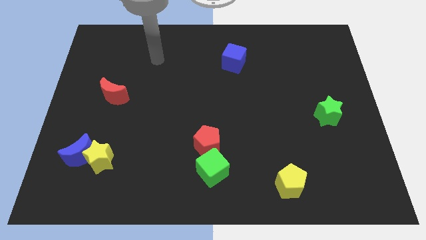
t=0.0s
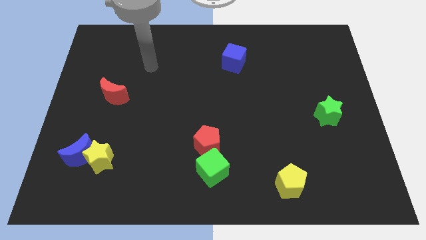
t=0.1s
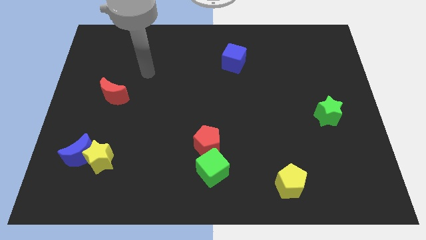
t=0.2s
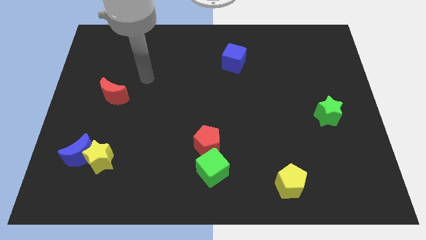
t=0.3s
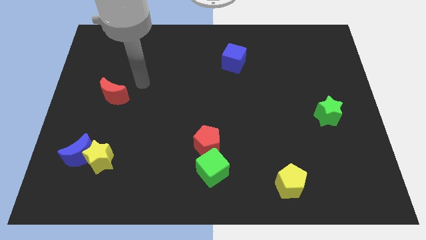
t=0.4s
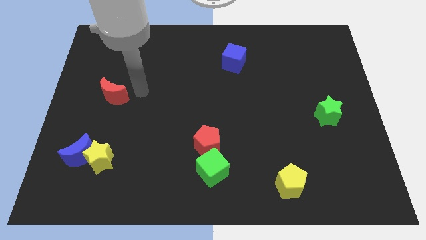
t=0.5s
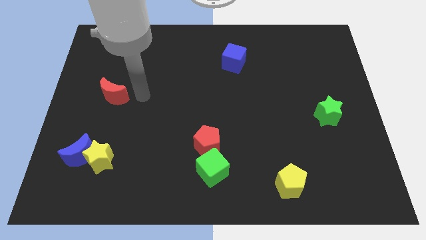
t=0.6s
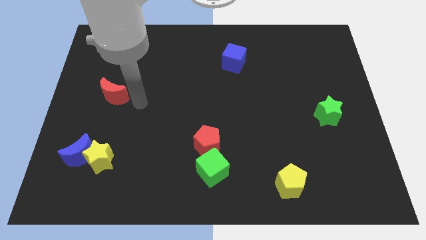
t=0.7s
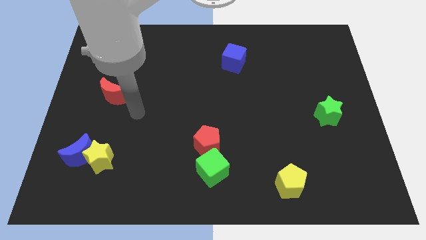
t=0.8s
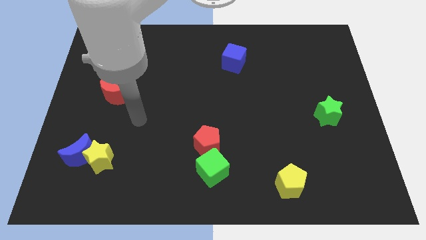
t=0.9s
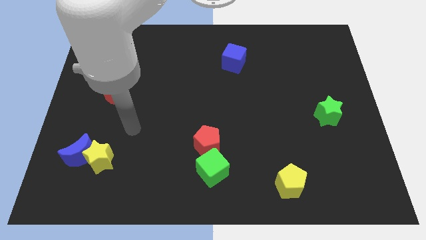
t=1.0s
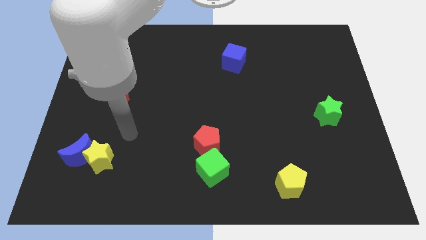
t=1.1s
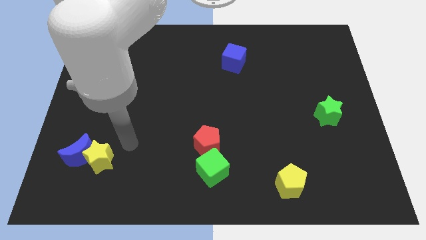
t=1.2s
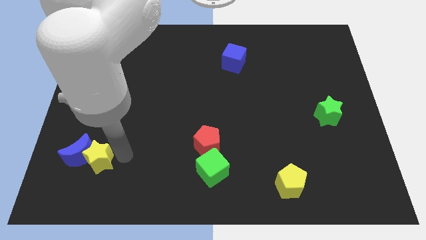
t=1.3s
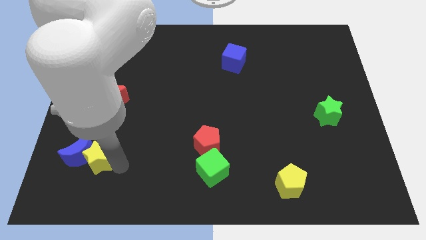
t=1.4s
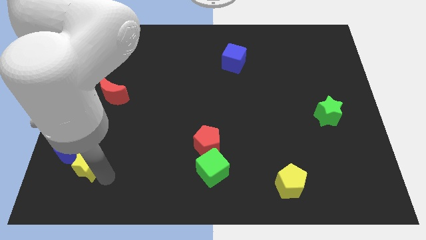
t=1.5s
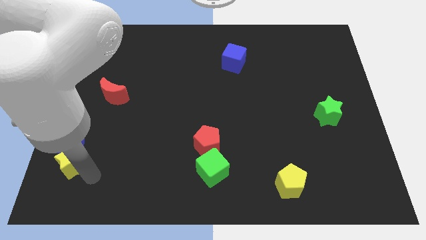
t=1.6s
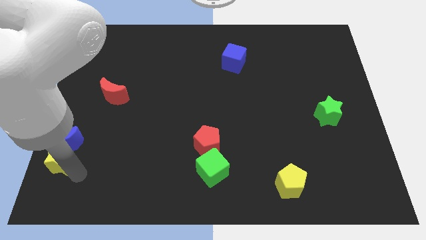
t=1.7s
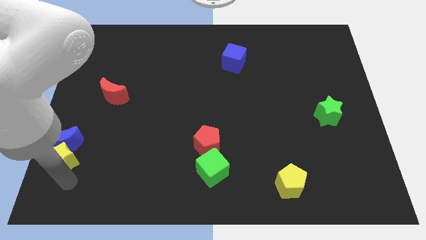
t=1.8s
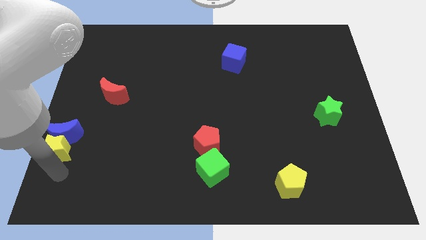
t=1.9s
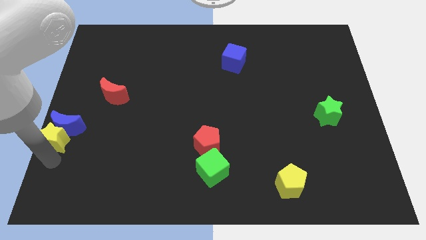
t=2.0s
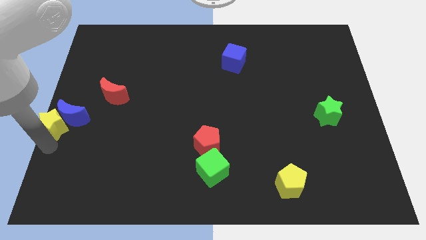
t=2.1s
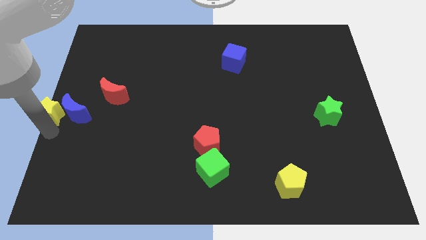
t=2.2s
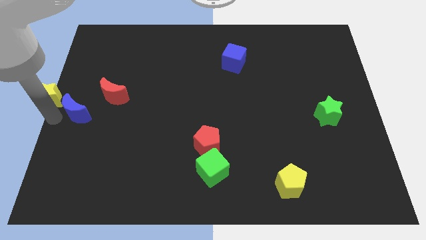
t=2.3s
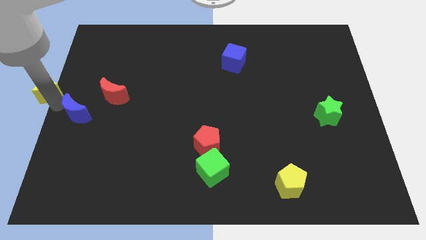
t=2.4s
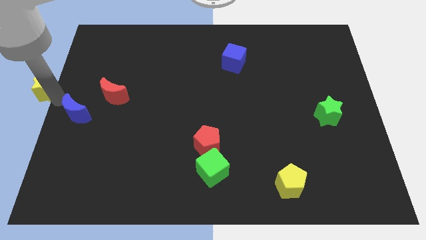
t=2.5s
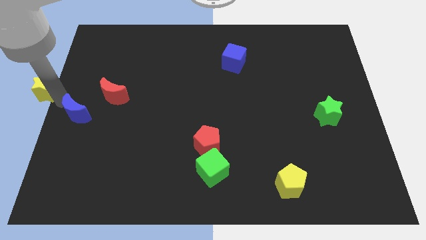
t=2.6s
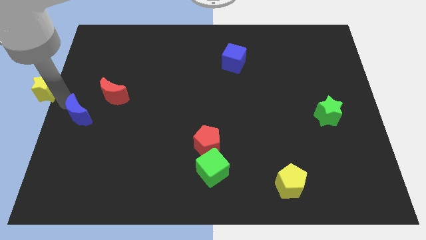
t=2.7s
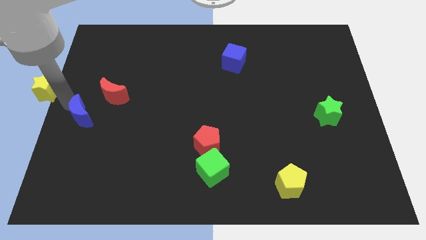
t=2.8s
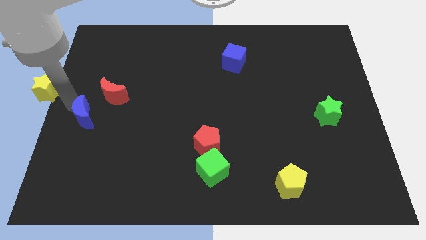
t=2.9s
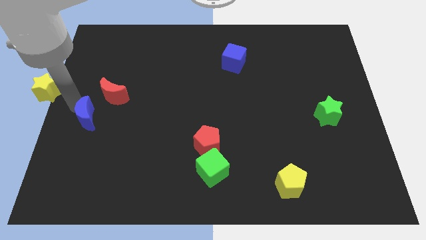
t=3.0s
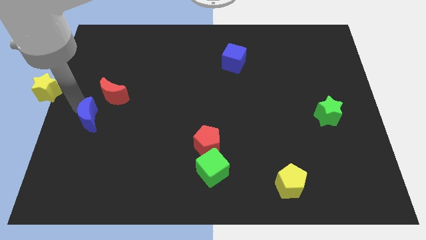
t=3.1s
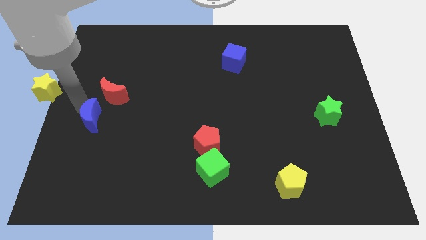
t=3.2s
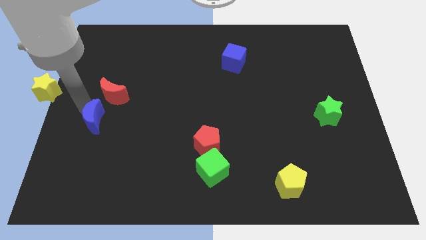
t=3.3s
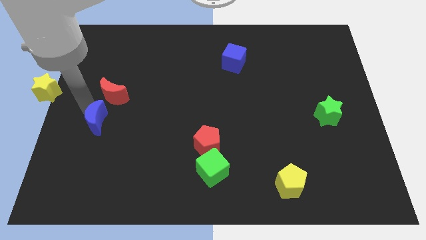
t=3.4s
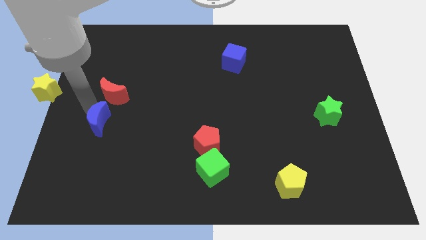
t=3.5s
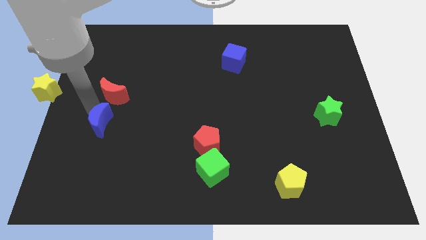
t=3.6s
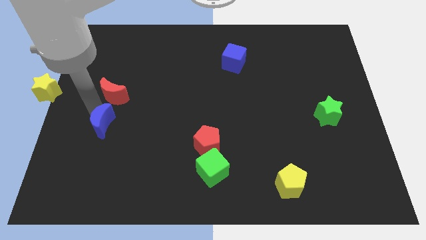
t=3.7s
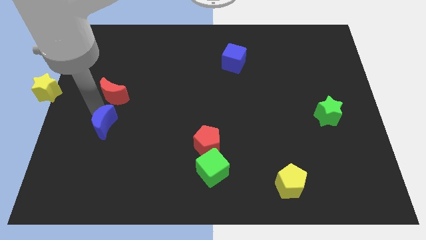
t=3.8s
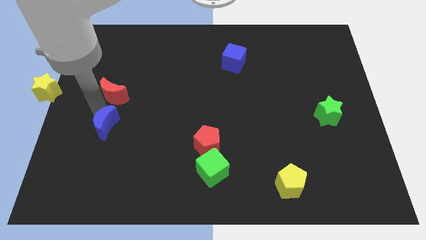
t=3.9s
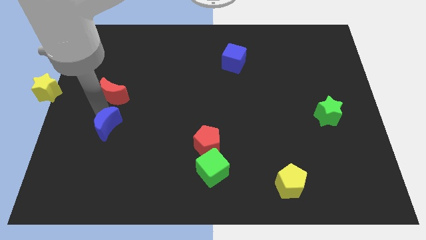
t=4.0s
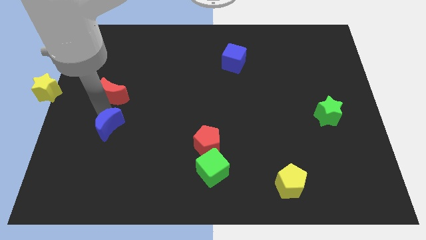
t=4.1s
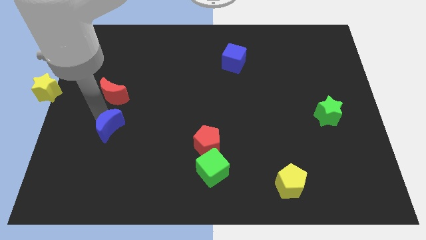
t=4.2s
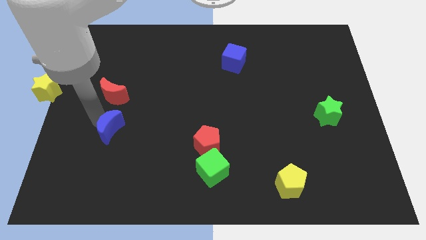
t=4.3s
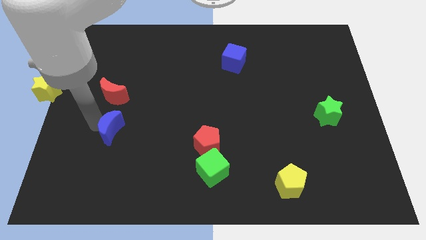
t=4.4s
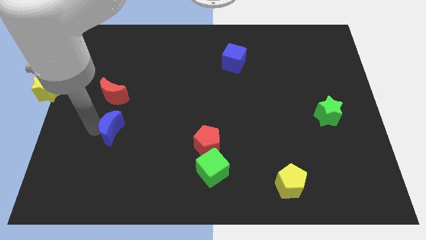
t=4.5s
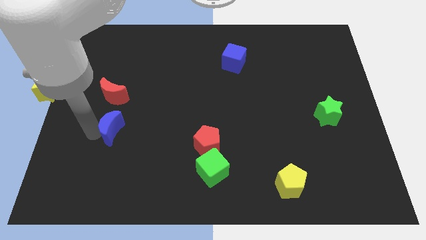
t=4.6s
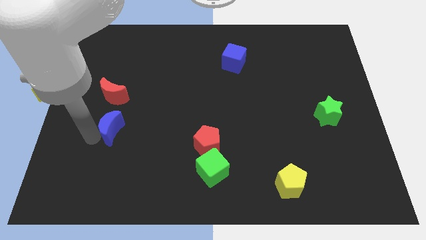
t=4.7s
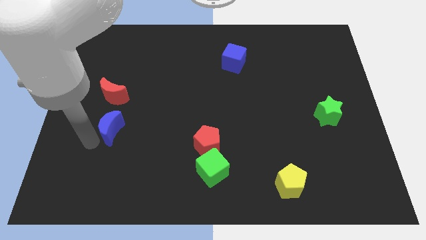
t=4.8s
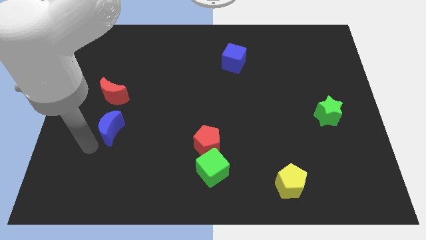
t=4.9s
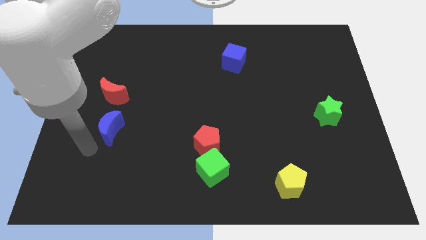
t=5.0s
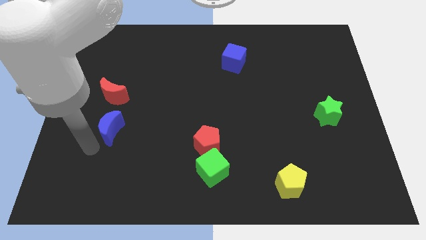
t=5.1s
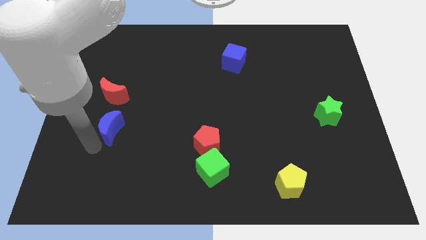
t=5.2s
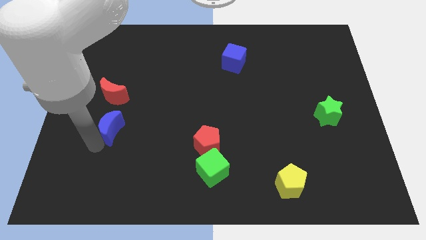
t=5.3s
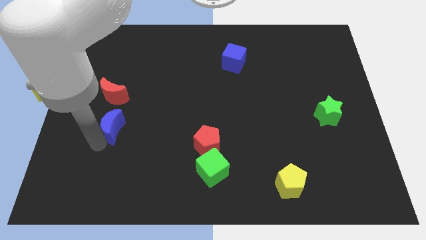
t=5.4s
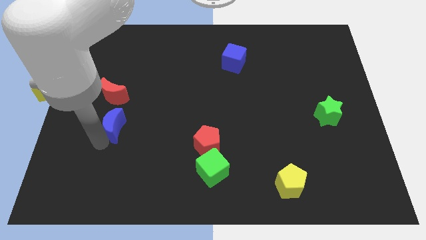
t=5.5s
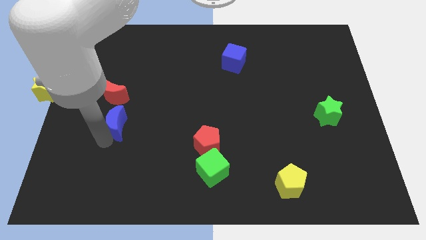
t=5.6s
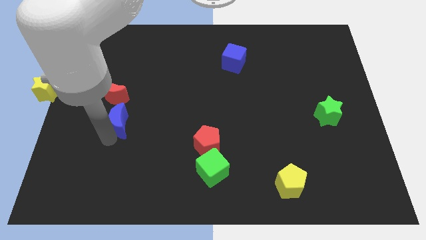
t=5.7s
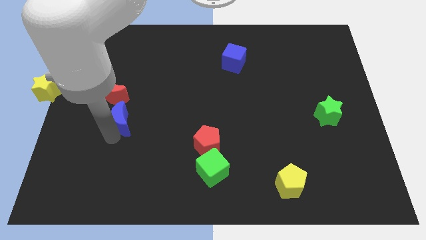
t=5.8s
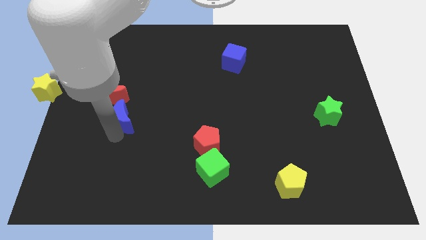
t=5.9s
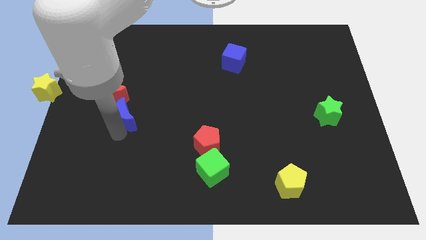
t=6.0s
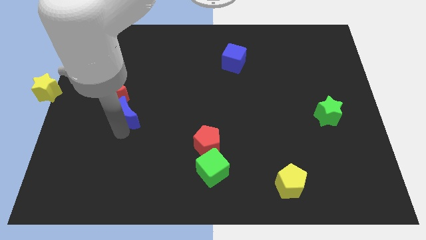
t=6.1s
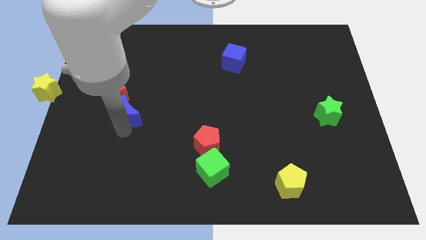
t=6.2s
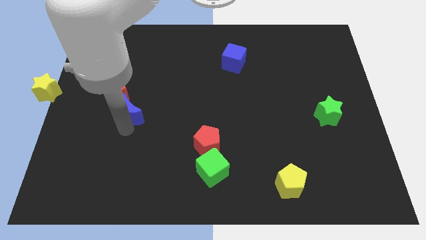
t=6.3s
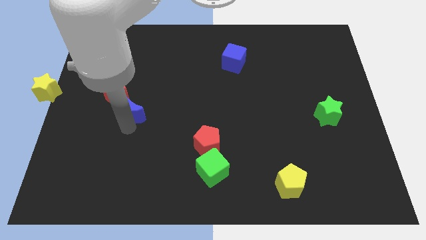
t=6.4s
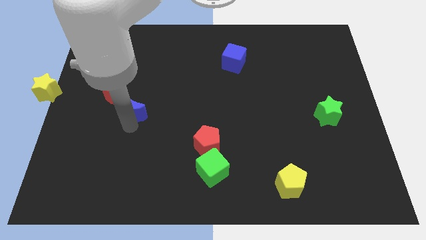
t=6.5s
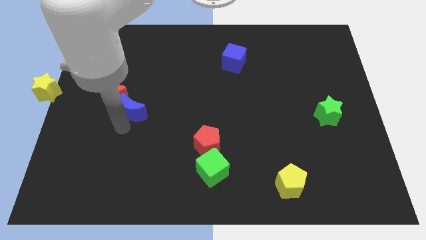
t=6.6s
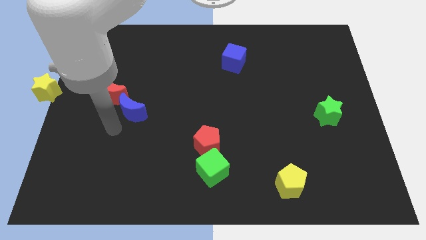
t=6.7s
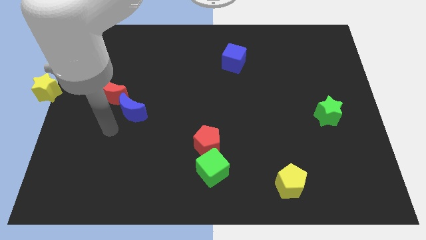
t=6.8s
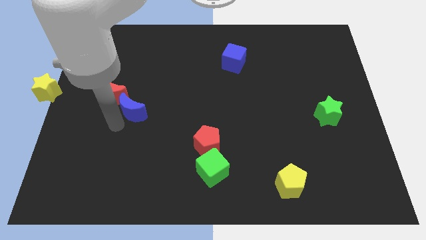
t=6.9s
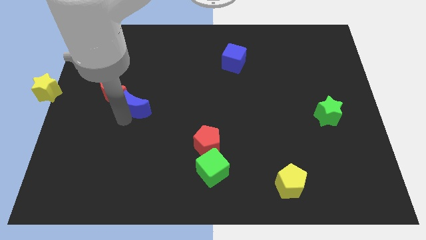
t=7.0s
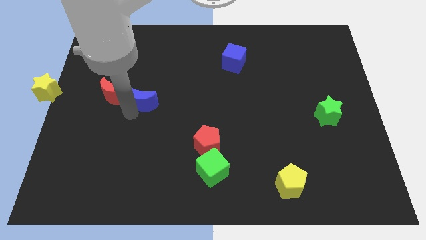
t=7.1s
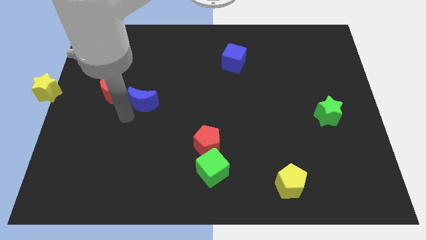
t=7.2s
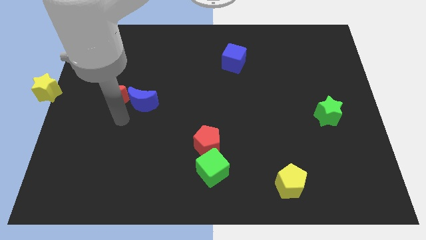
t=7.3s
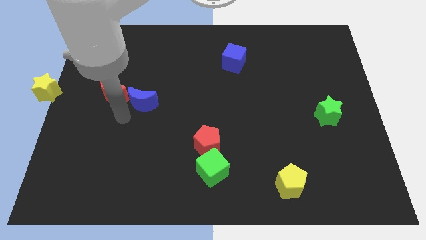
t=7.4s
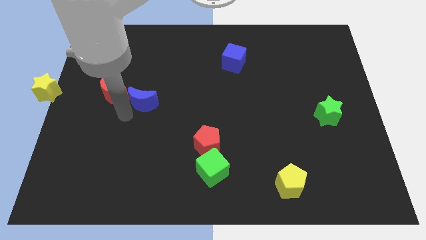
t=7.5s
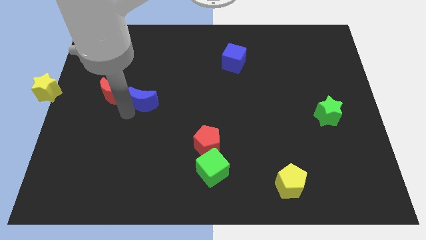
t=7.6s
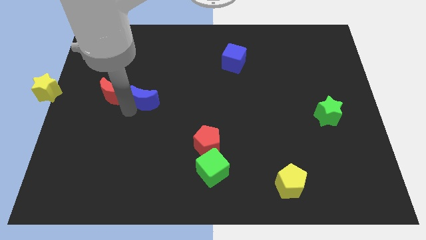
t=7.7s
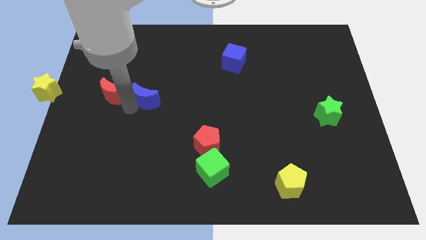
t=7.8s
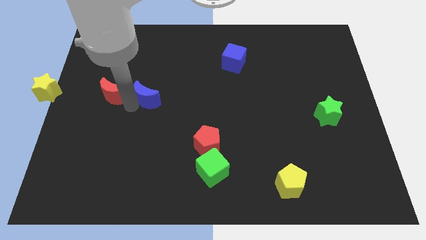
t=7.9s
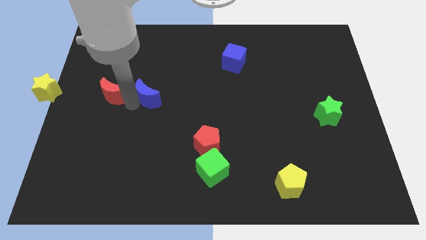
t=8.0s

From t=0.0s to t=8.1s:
slide the blue moon up and right

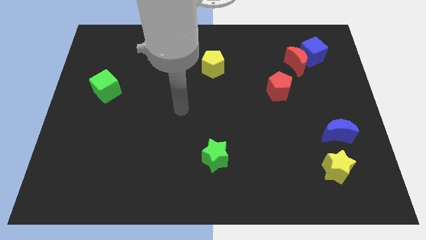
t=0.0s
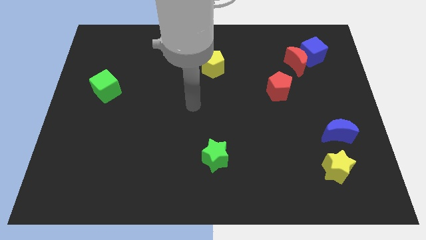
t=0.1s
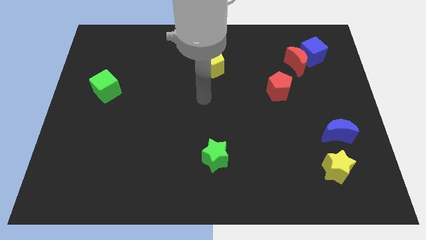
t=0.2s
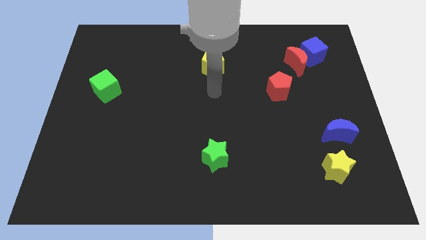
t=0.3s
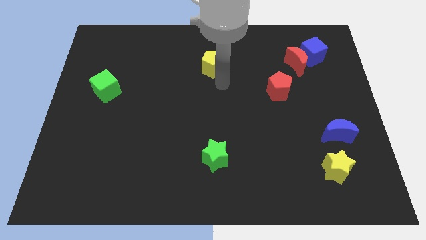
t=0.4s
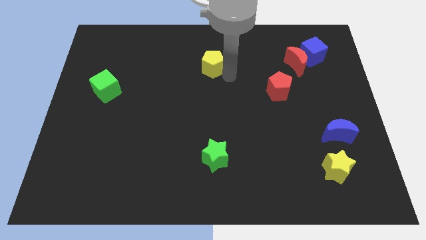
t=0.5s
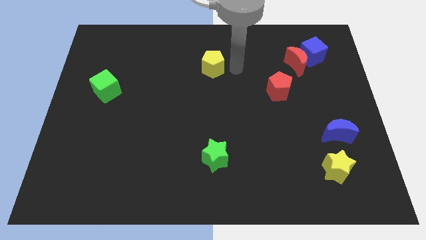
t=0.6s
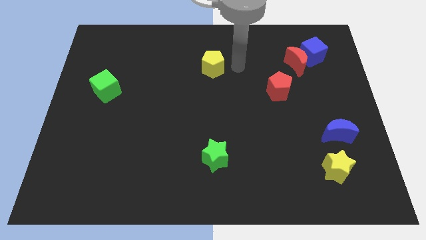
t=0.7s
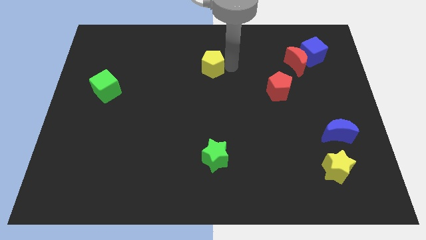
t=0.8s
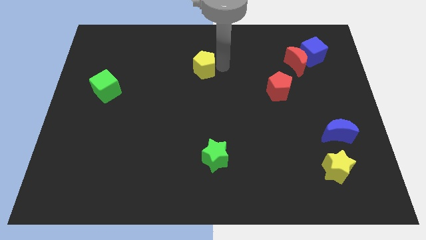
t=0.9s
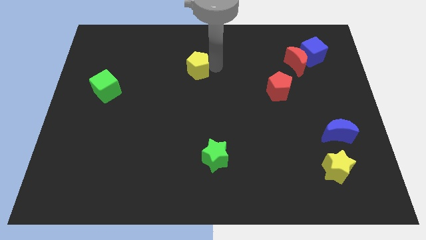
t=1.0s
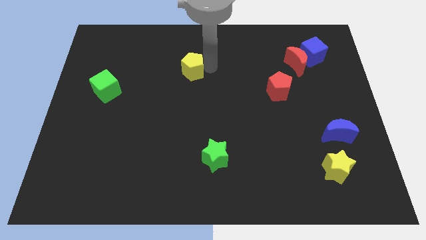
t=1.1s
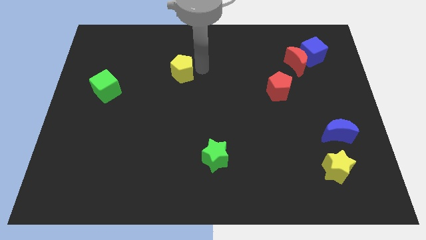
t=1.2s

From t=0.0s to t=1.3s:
slightly move the yellow pentagon to the left
